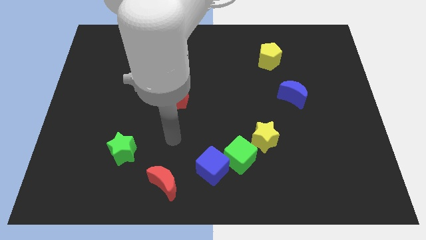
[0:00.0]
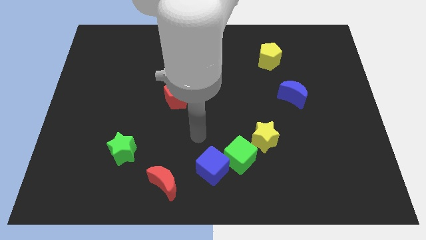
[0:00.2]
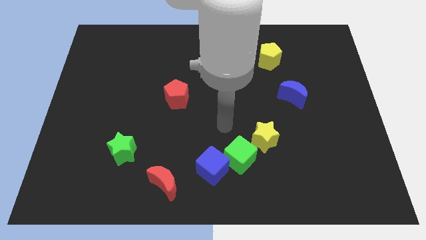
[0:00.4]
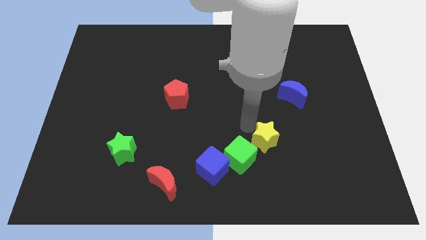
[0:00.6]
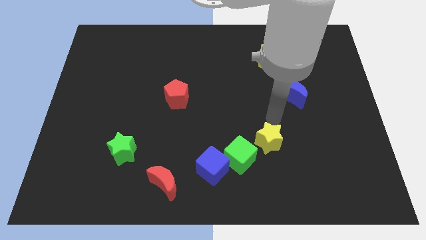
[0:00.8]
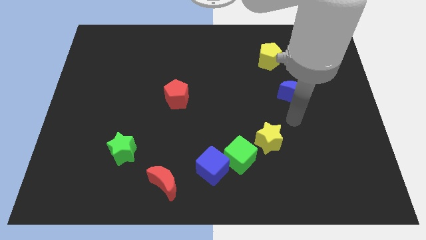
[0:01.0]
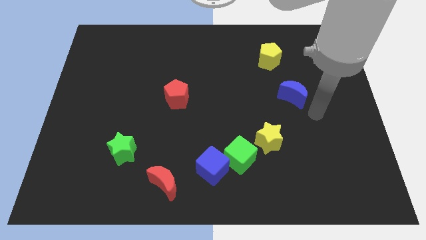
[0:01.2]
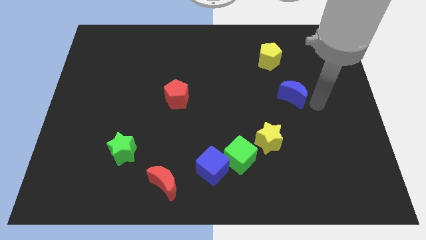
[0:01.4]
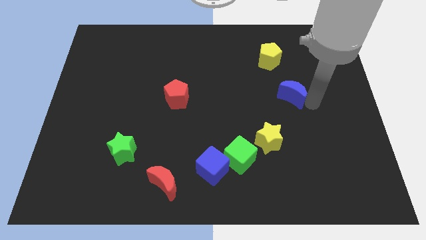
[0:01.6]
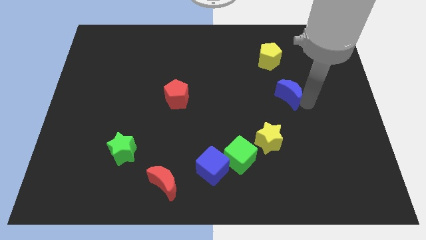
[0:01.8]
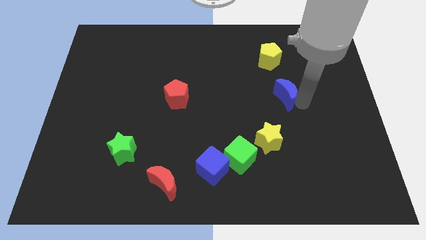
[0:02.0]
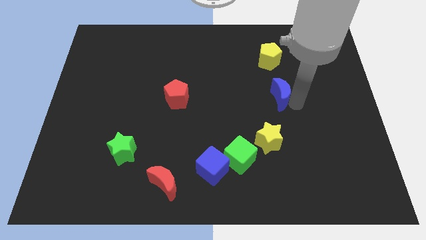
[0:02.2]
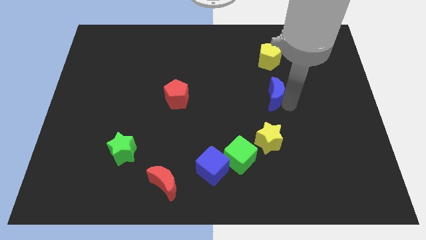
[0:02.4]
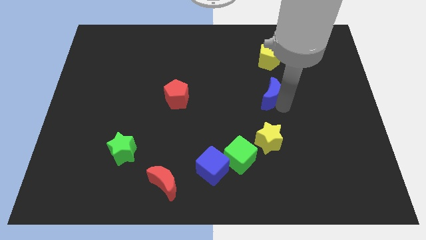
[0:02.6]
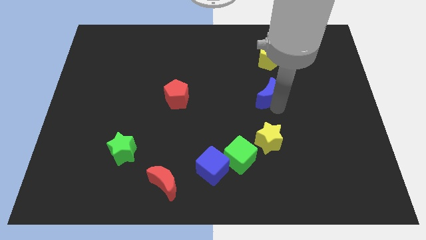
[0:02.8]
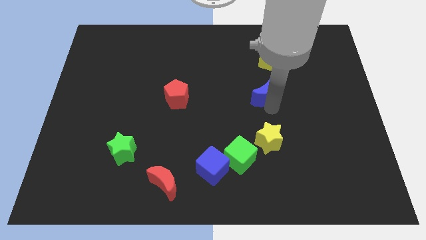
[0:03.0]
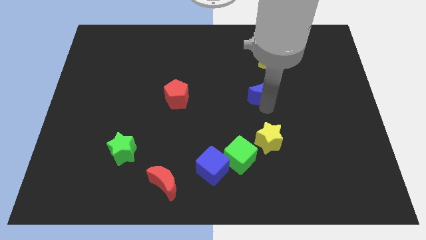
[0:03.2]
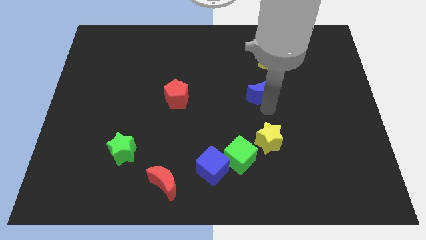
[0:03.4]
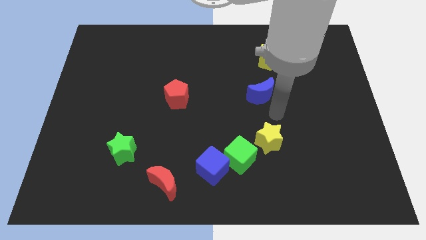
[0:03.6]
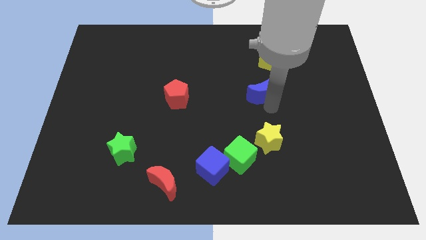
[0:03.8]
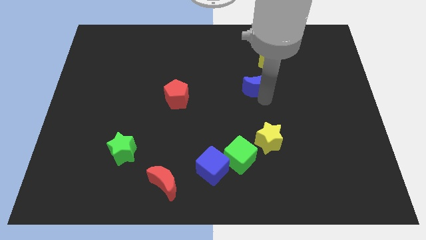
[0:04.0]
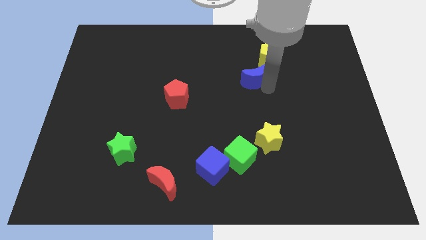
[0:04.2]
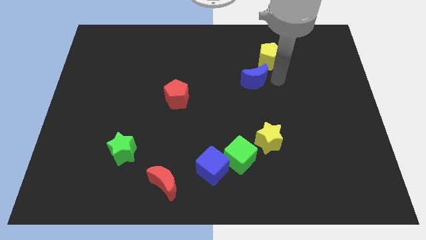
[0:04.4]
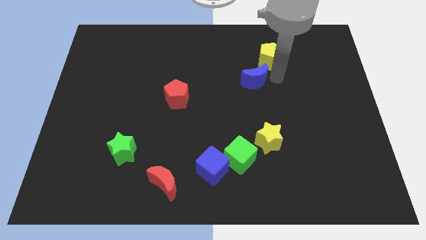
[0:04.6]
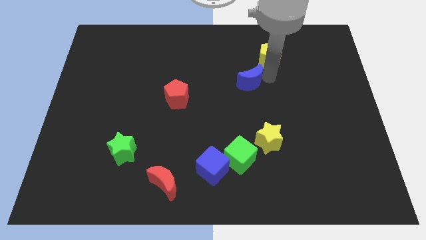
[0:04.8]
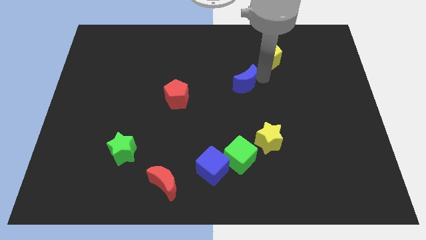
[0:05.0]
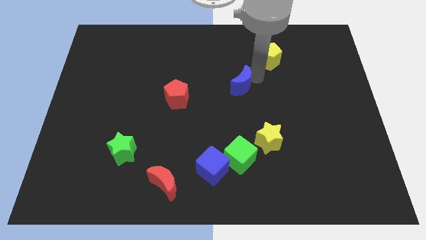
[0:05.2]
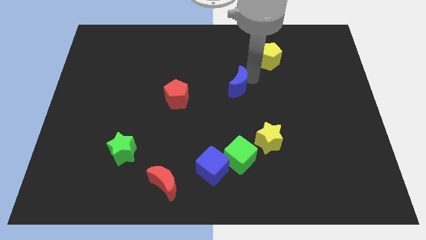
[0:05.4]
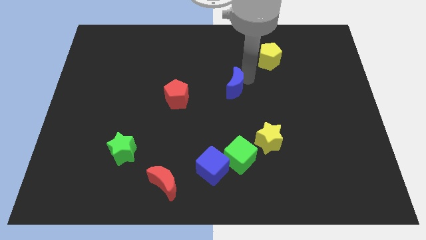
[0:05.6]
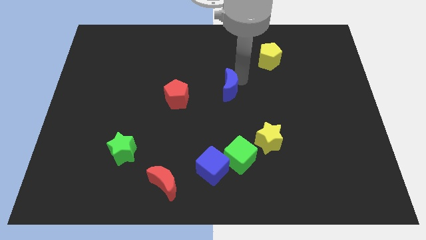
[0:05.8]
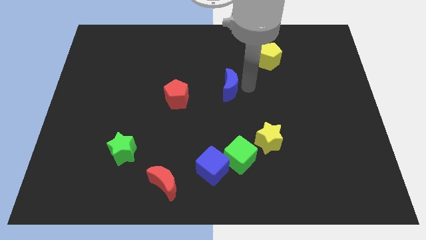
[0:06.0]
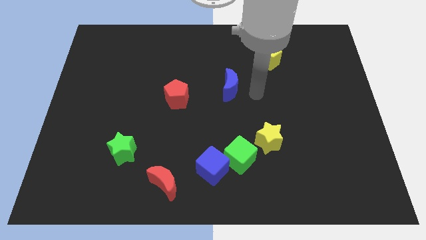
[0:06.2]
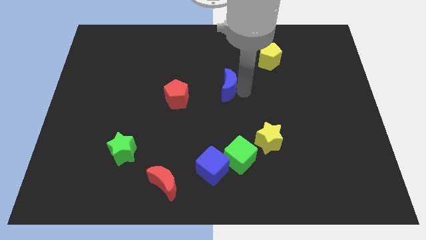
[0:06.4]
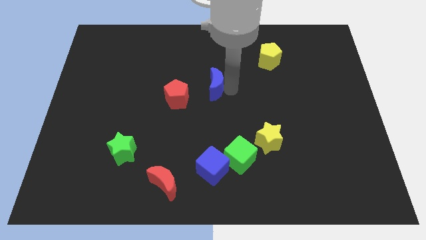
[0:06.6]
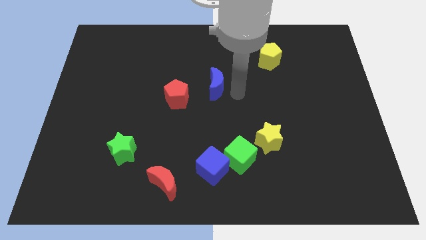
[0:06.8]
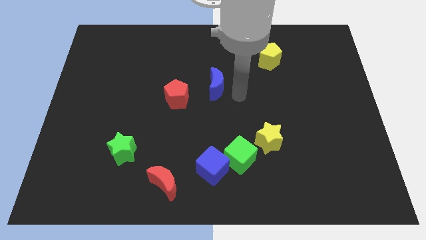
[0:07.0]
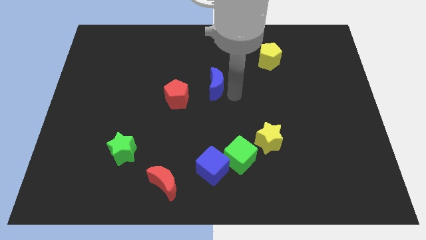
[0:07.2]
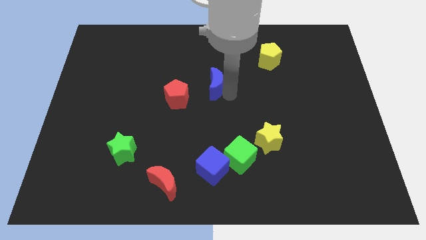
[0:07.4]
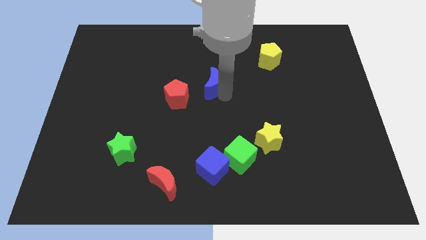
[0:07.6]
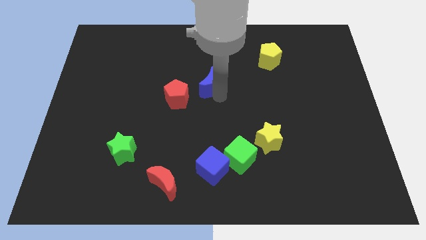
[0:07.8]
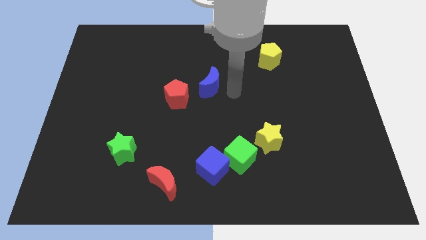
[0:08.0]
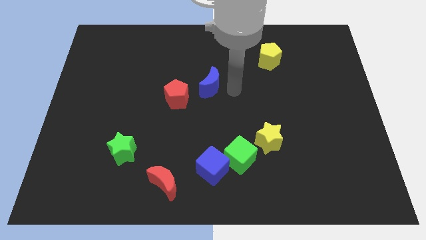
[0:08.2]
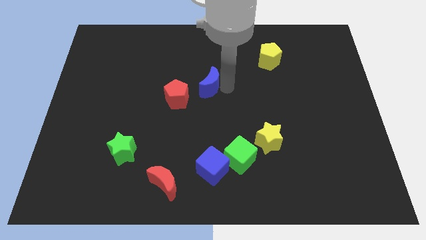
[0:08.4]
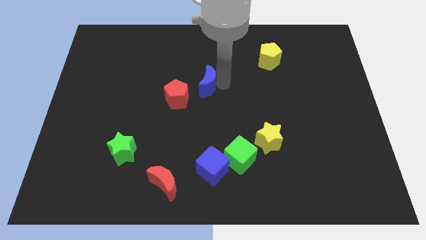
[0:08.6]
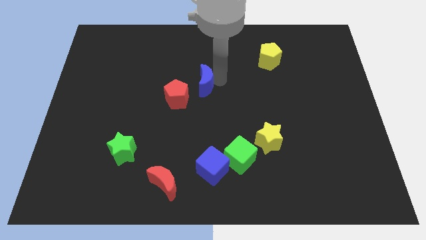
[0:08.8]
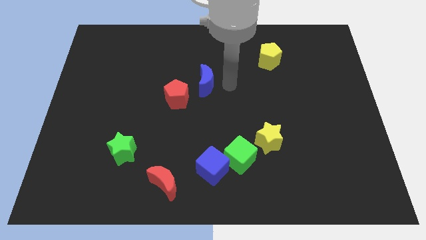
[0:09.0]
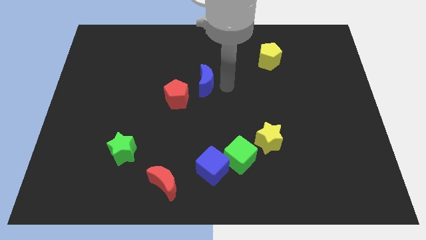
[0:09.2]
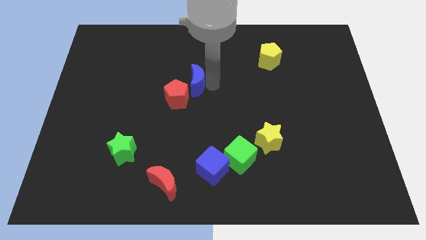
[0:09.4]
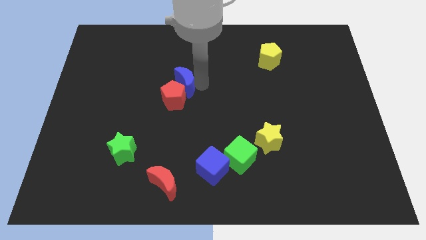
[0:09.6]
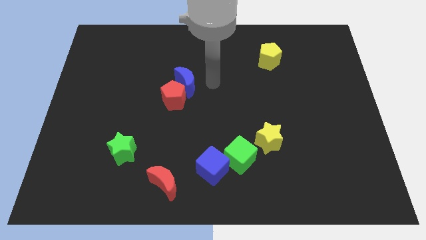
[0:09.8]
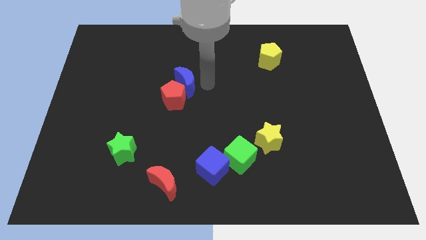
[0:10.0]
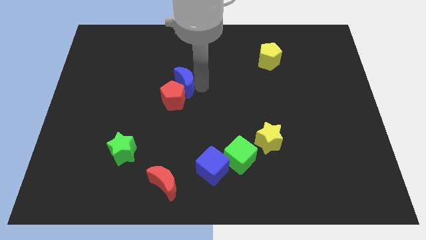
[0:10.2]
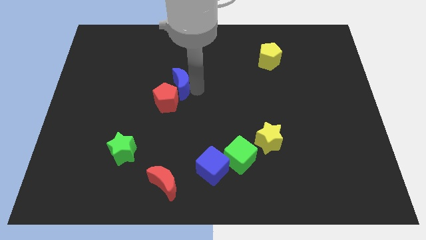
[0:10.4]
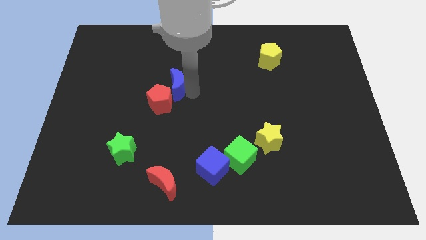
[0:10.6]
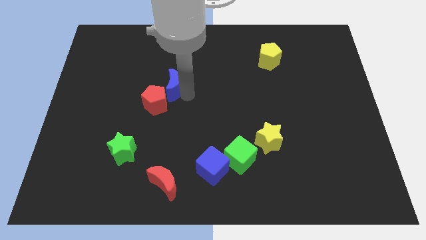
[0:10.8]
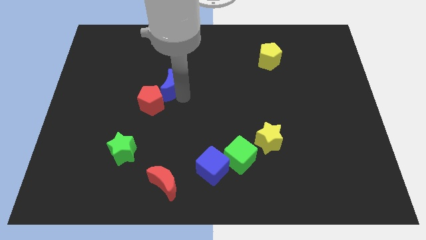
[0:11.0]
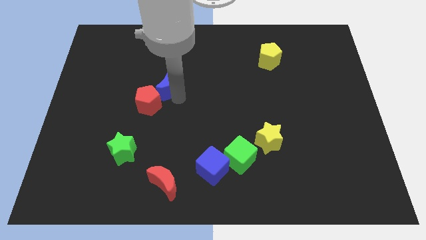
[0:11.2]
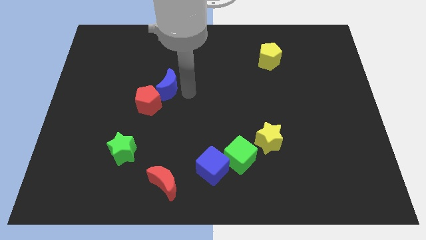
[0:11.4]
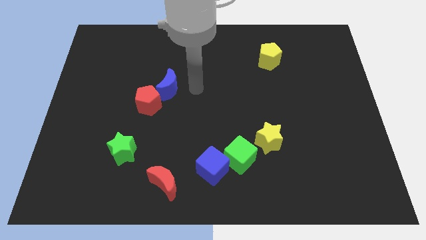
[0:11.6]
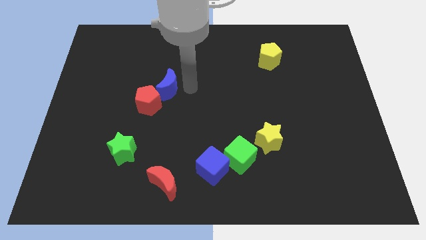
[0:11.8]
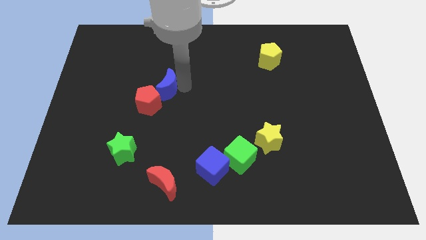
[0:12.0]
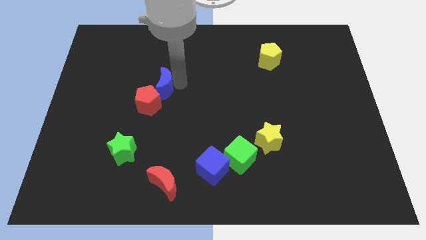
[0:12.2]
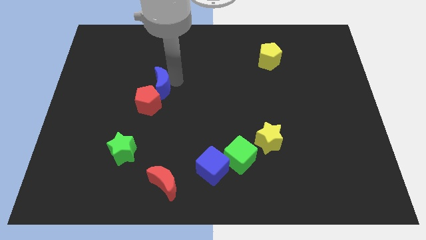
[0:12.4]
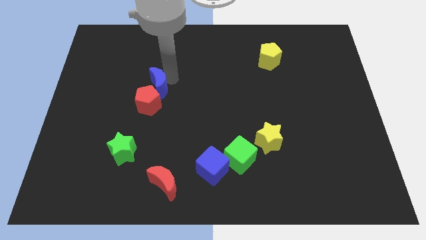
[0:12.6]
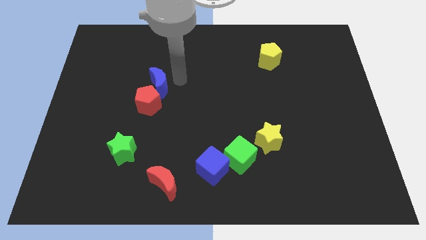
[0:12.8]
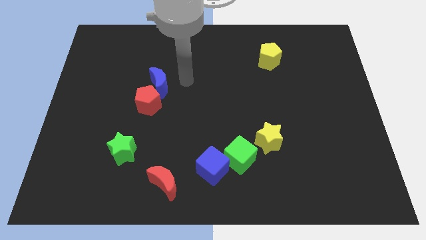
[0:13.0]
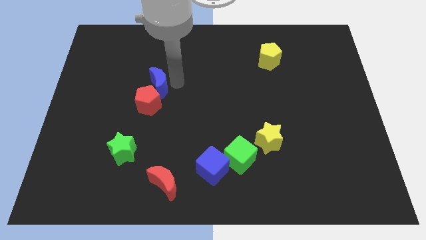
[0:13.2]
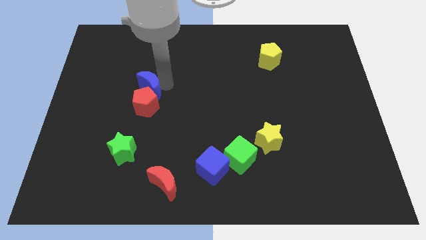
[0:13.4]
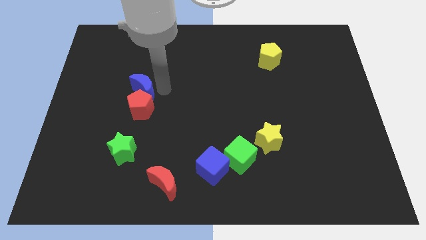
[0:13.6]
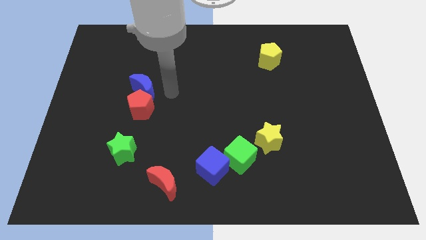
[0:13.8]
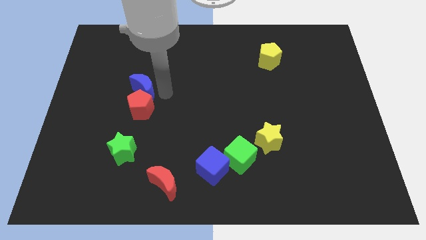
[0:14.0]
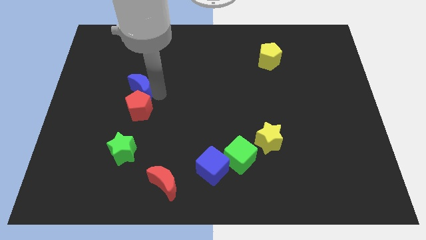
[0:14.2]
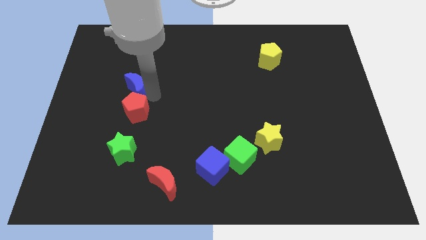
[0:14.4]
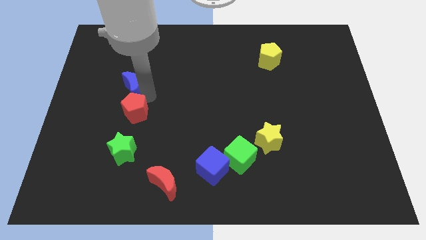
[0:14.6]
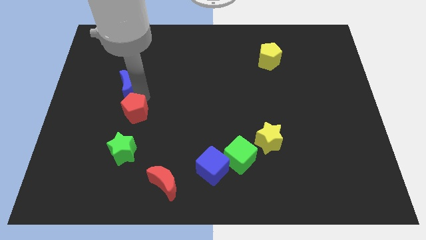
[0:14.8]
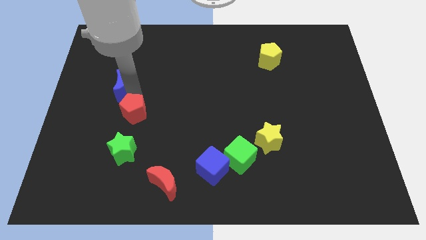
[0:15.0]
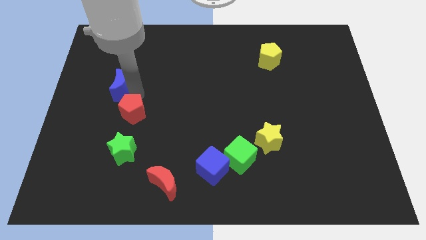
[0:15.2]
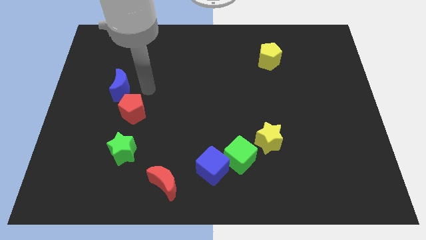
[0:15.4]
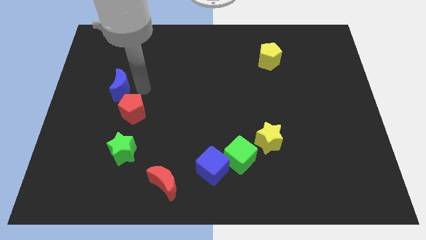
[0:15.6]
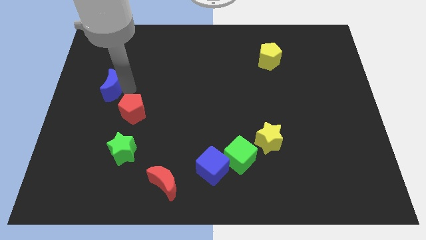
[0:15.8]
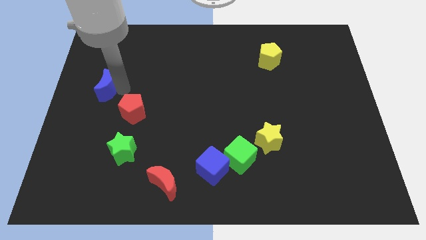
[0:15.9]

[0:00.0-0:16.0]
push the blue moon to the left side
